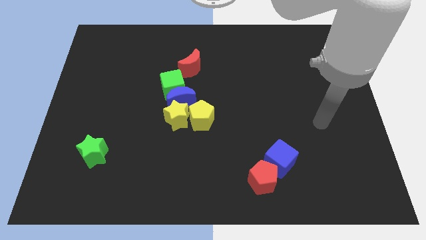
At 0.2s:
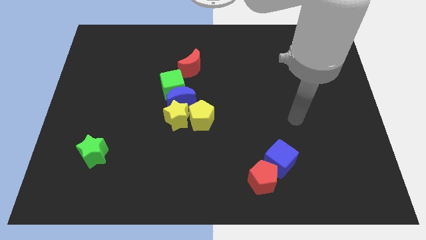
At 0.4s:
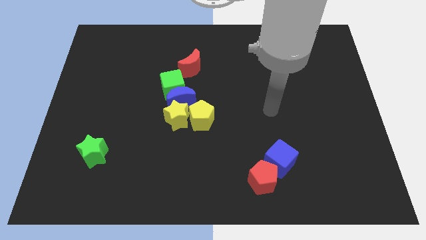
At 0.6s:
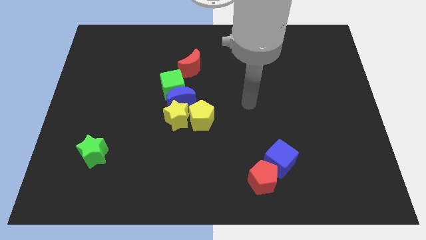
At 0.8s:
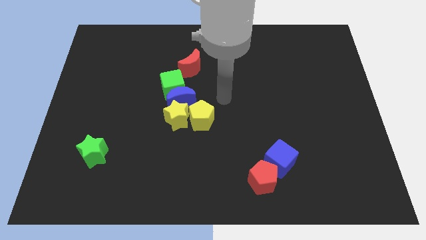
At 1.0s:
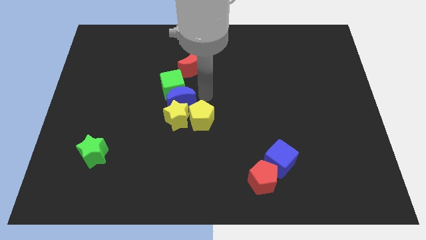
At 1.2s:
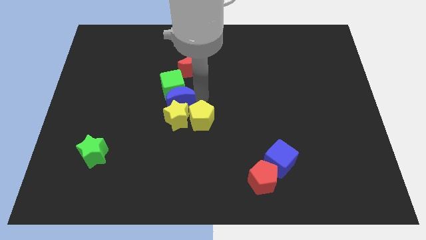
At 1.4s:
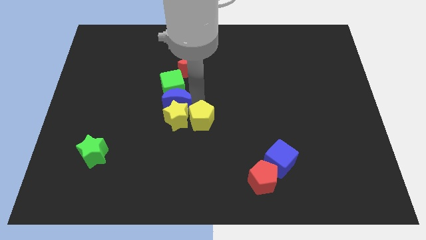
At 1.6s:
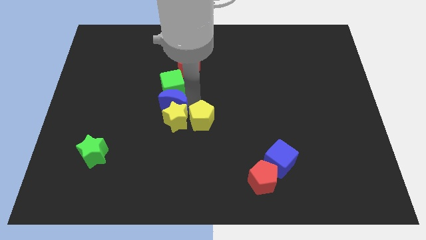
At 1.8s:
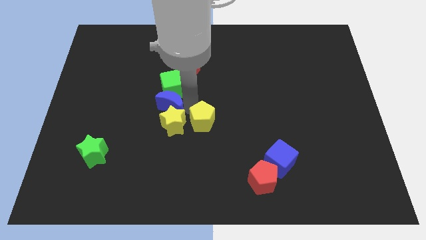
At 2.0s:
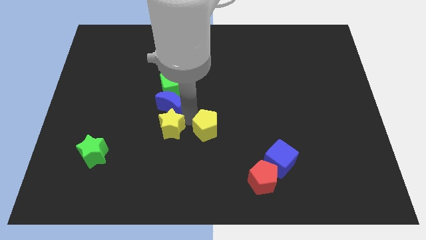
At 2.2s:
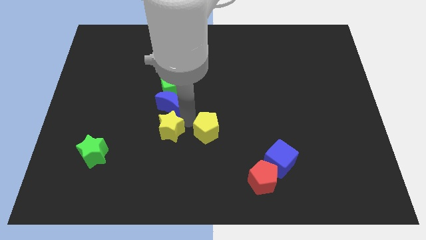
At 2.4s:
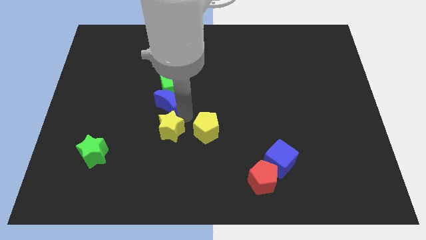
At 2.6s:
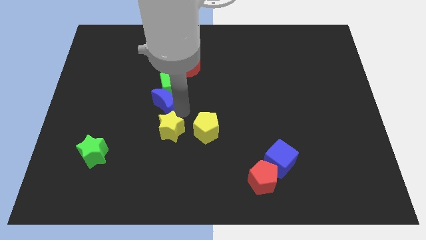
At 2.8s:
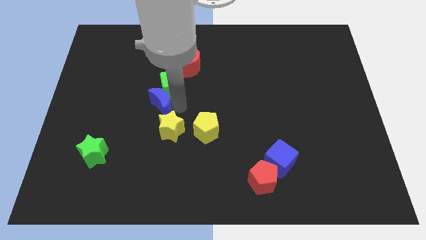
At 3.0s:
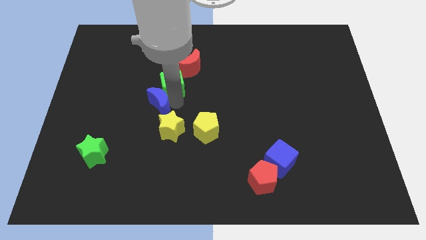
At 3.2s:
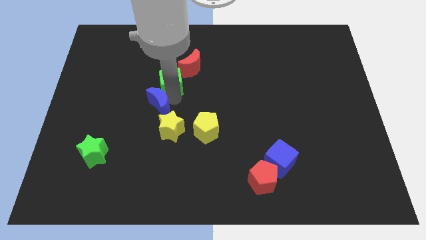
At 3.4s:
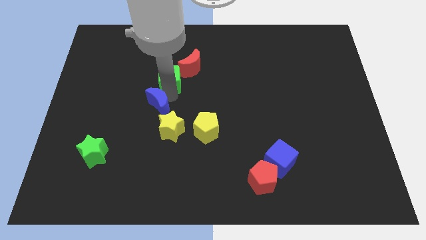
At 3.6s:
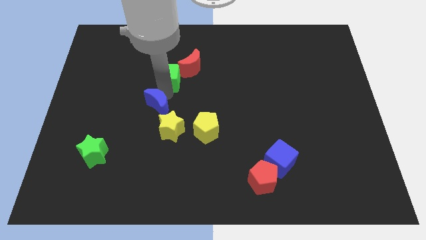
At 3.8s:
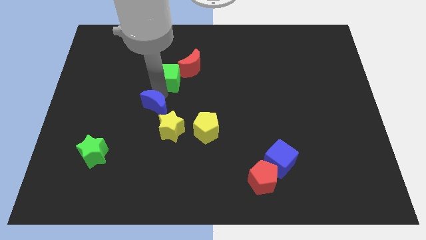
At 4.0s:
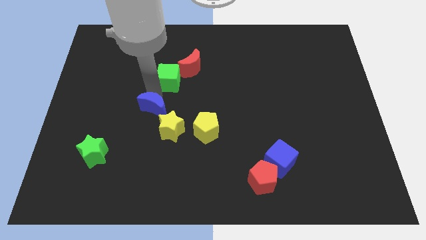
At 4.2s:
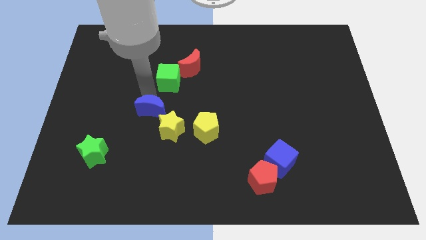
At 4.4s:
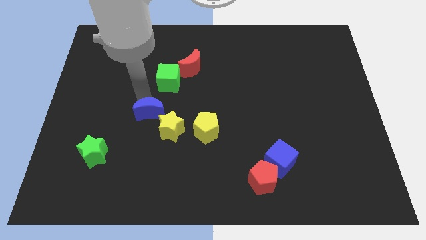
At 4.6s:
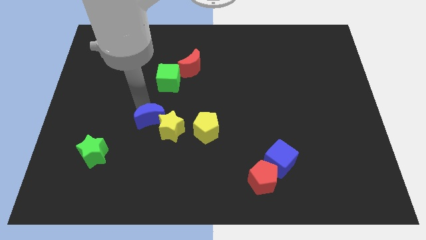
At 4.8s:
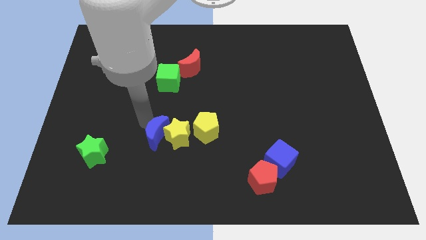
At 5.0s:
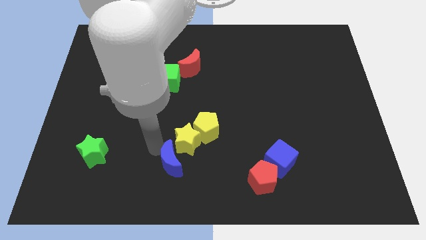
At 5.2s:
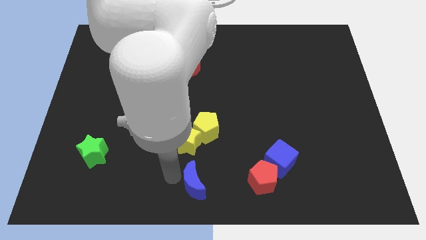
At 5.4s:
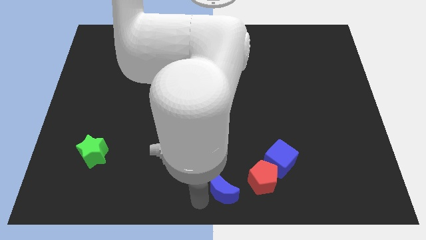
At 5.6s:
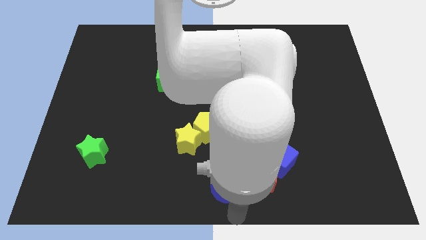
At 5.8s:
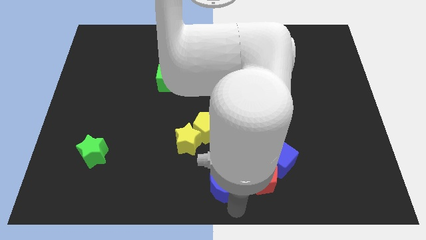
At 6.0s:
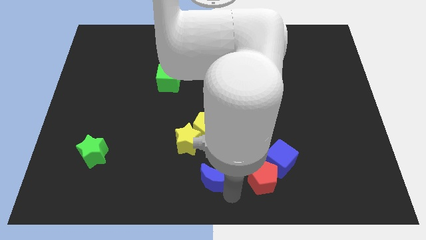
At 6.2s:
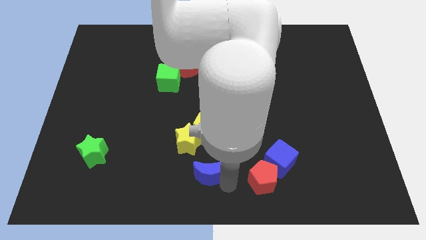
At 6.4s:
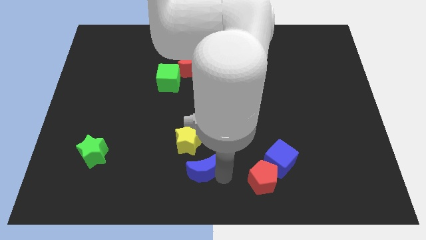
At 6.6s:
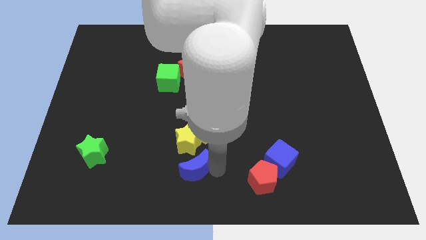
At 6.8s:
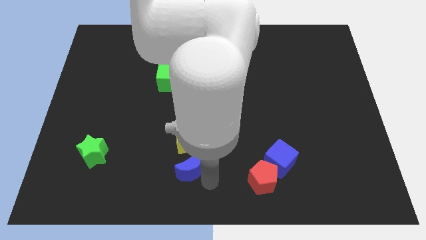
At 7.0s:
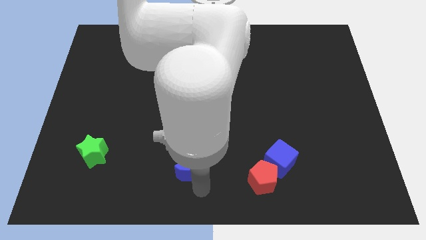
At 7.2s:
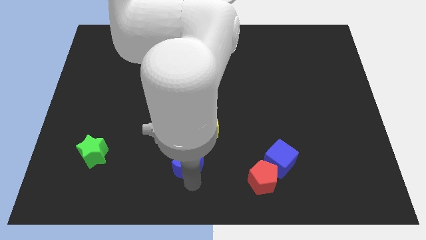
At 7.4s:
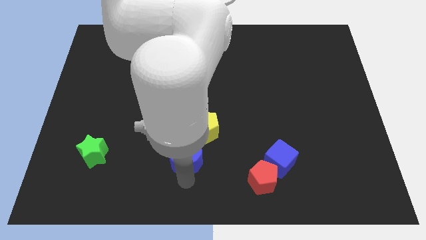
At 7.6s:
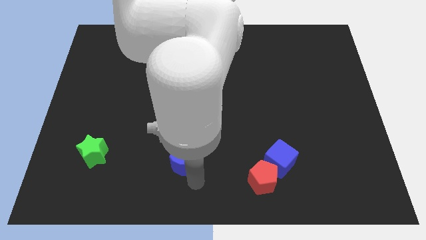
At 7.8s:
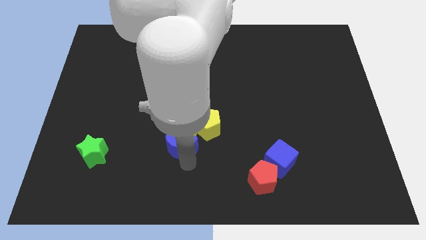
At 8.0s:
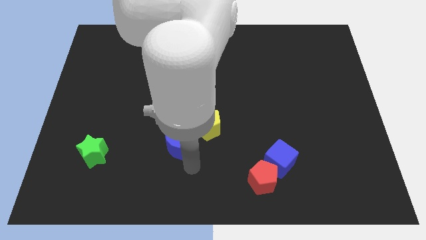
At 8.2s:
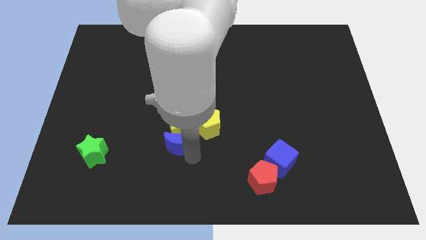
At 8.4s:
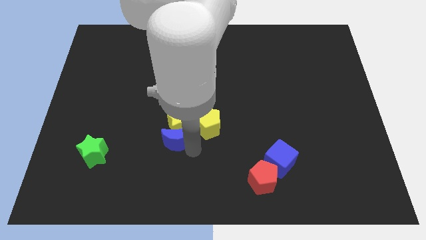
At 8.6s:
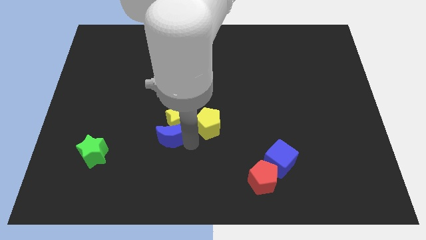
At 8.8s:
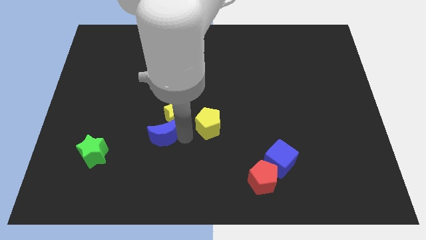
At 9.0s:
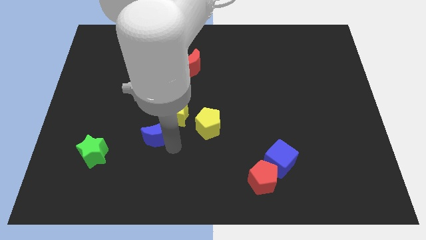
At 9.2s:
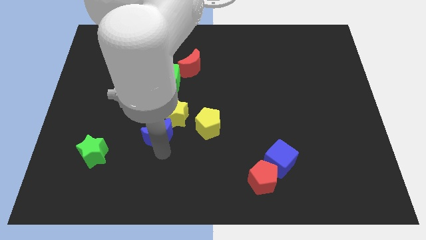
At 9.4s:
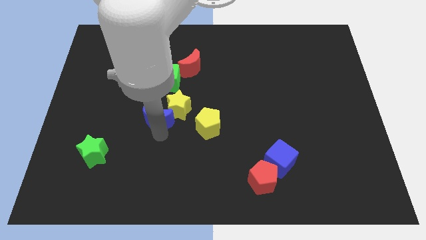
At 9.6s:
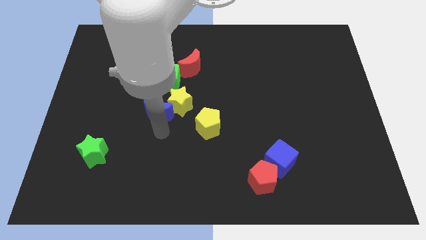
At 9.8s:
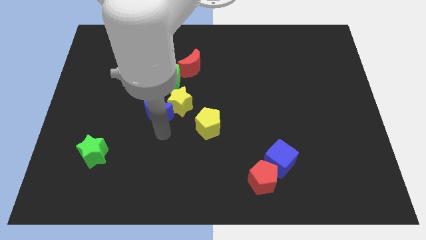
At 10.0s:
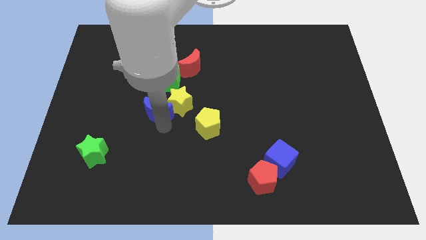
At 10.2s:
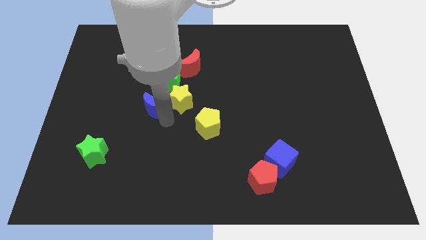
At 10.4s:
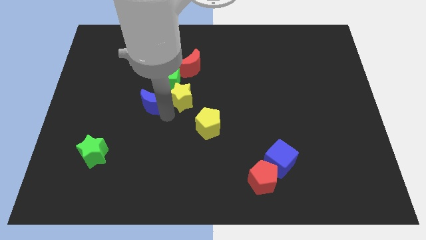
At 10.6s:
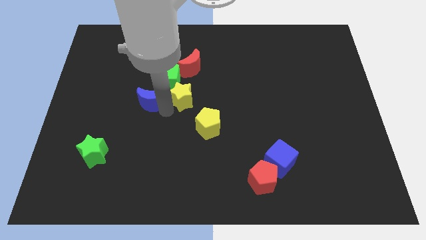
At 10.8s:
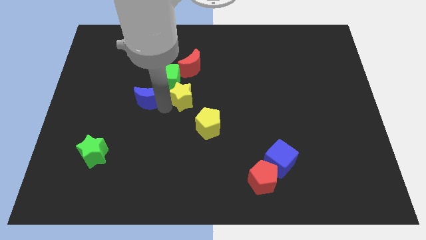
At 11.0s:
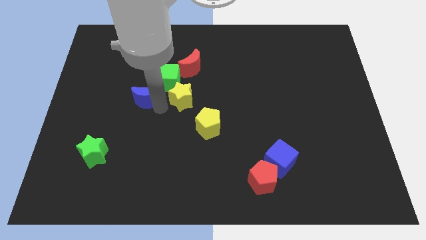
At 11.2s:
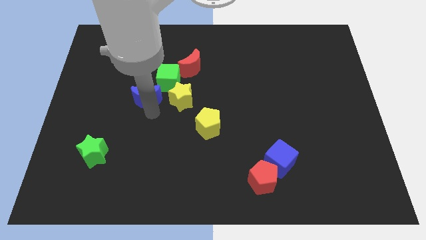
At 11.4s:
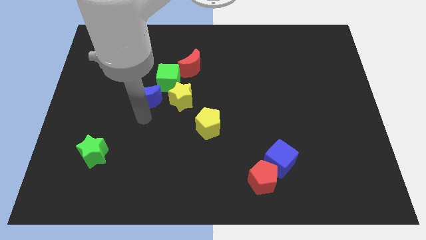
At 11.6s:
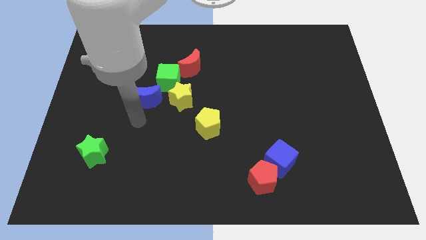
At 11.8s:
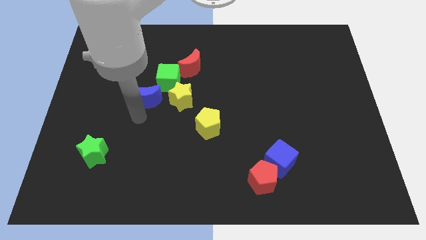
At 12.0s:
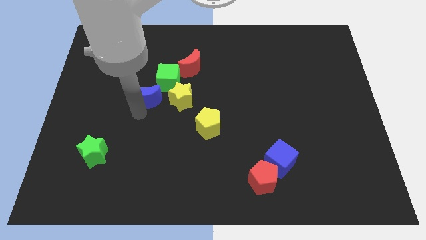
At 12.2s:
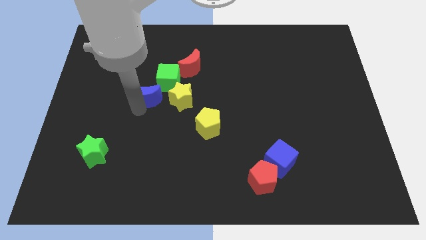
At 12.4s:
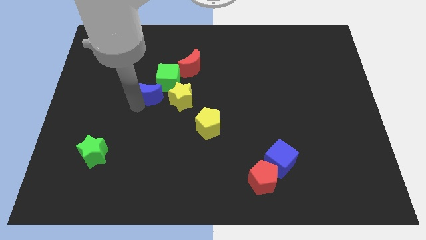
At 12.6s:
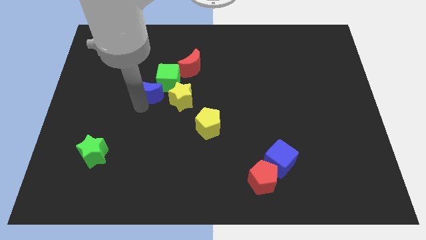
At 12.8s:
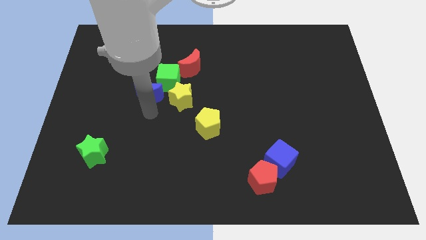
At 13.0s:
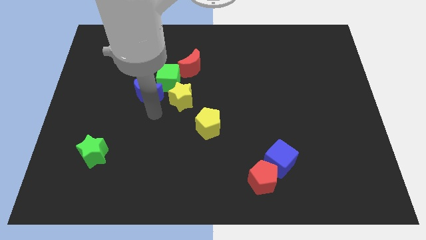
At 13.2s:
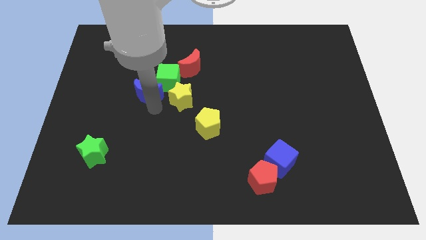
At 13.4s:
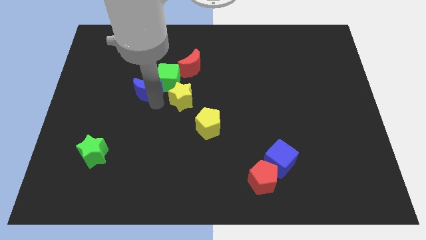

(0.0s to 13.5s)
slightly move the blue moon up and then left

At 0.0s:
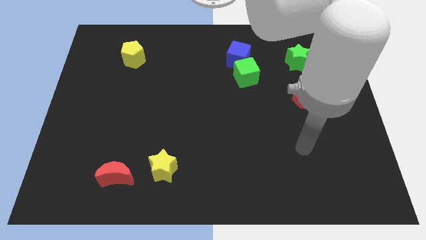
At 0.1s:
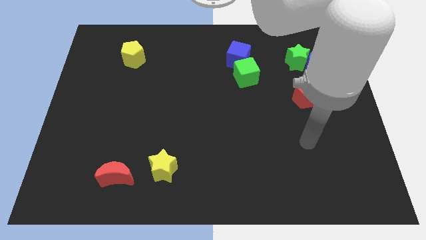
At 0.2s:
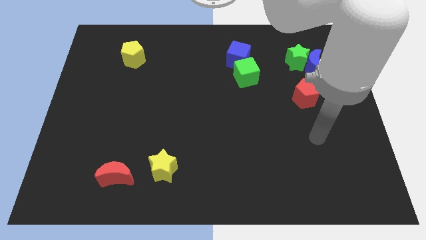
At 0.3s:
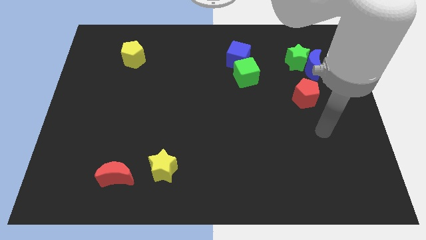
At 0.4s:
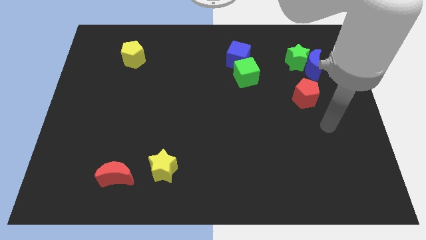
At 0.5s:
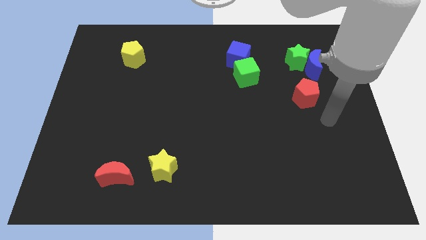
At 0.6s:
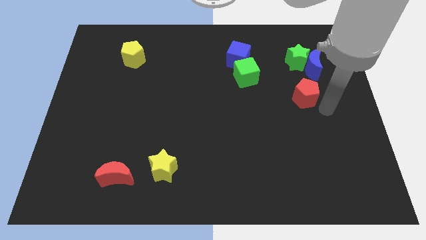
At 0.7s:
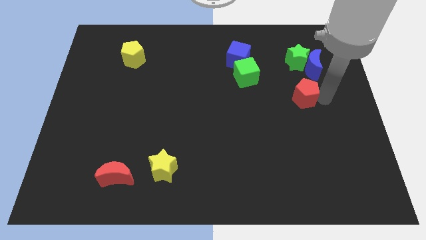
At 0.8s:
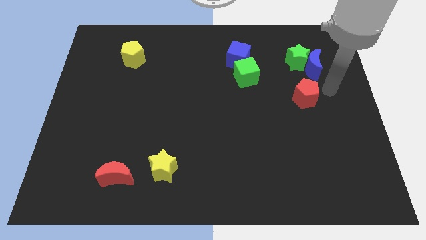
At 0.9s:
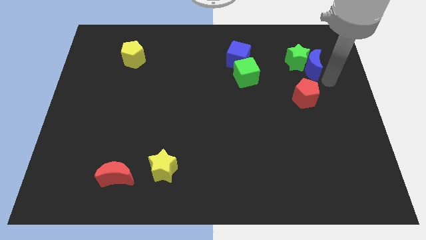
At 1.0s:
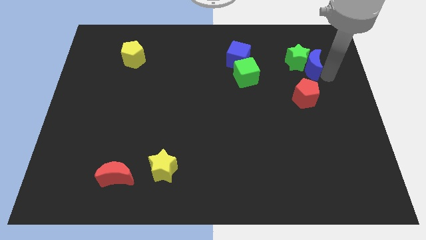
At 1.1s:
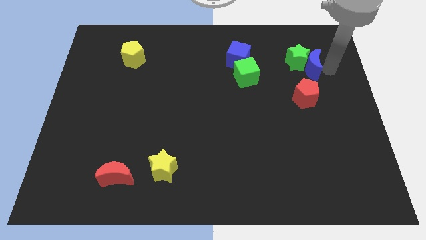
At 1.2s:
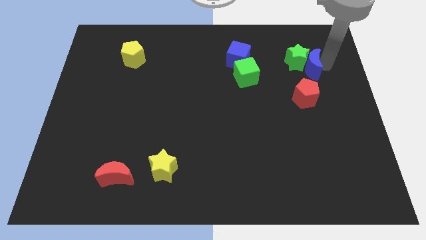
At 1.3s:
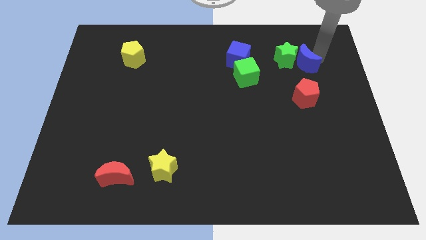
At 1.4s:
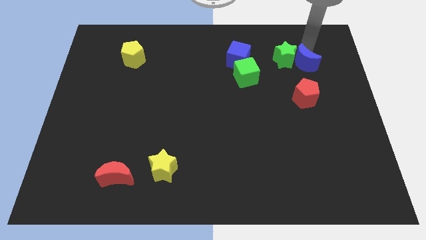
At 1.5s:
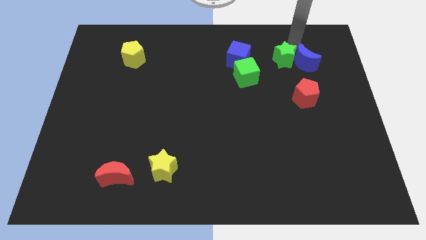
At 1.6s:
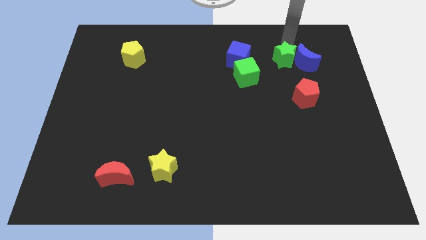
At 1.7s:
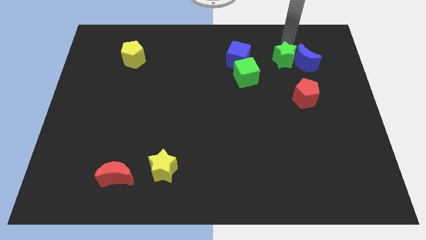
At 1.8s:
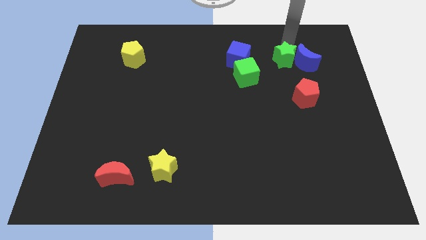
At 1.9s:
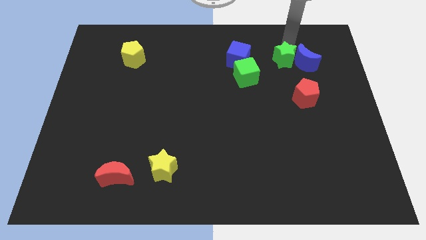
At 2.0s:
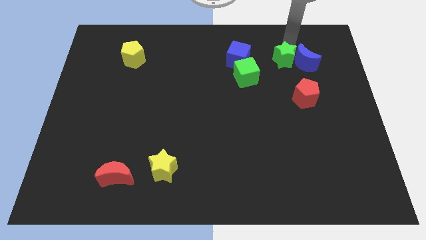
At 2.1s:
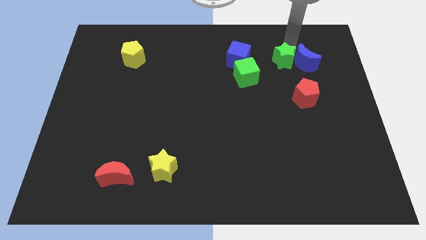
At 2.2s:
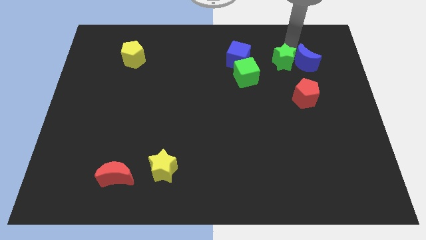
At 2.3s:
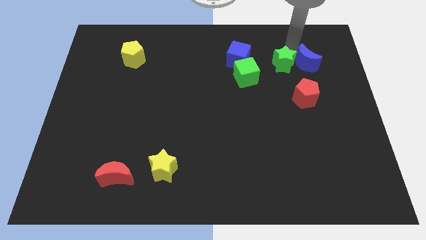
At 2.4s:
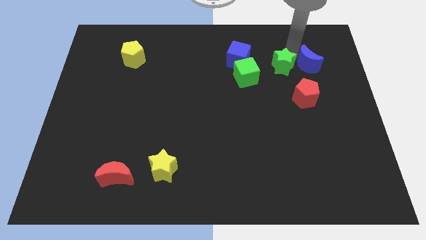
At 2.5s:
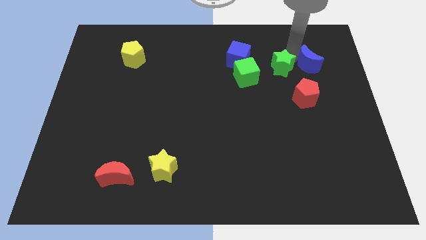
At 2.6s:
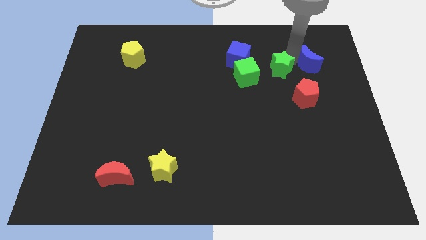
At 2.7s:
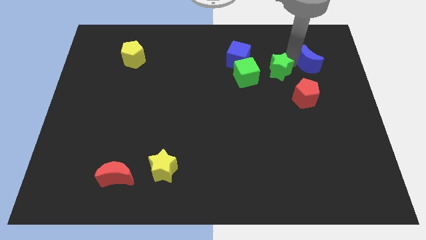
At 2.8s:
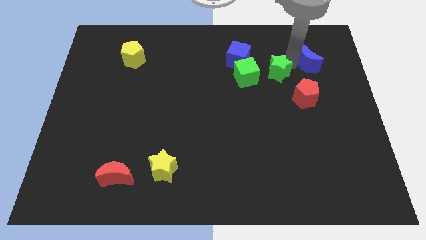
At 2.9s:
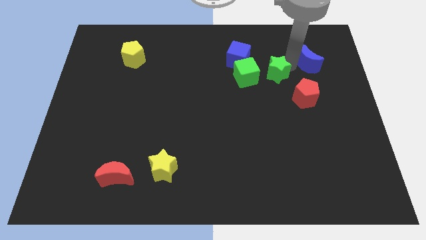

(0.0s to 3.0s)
slide the green star down and then to the left slightly
